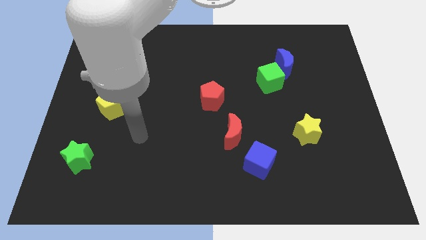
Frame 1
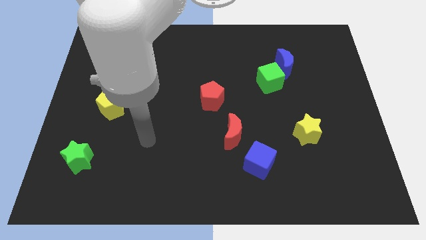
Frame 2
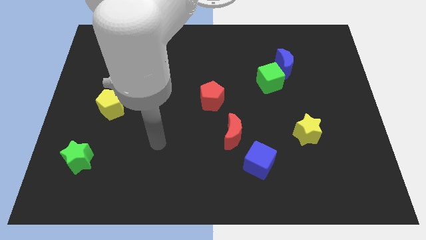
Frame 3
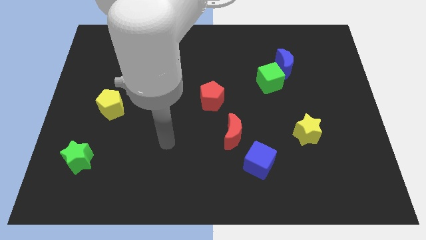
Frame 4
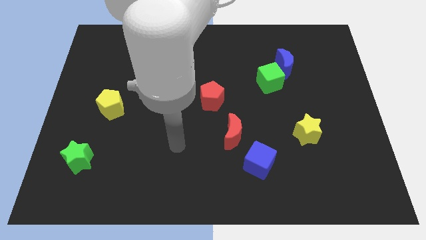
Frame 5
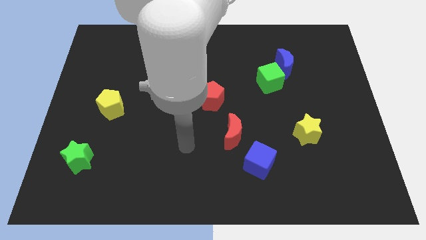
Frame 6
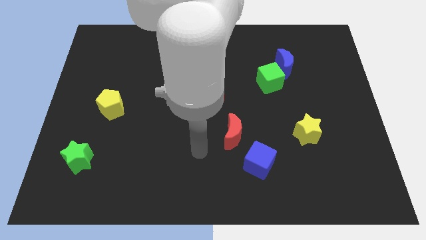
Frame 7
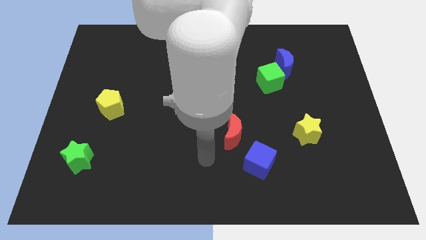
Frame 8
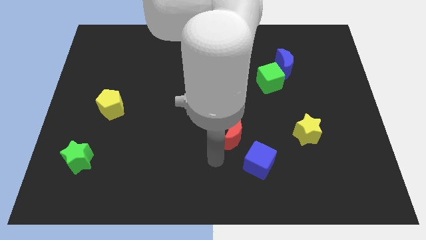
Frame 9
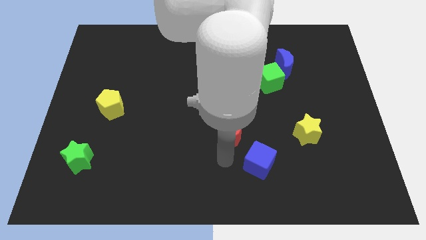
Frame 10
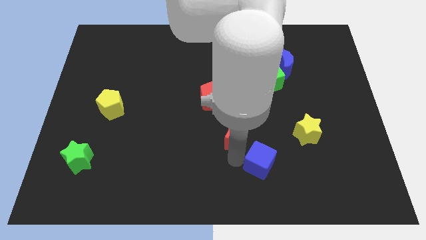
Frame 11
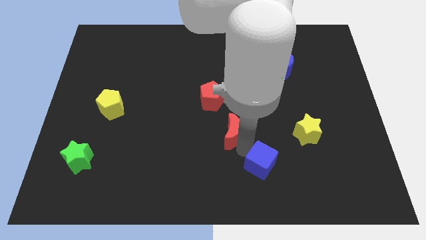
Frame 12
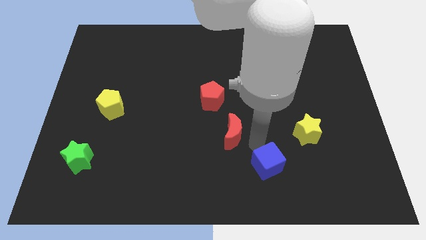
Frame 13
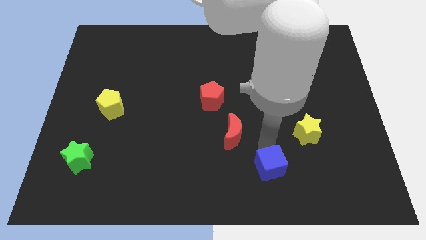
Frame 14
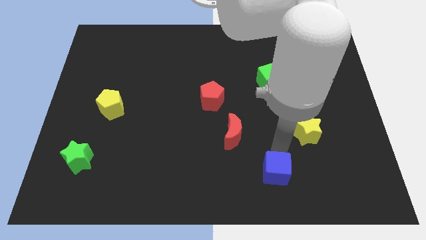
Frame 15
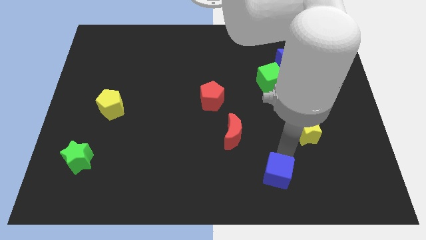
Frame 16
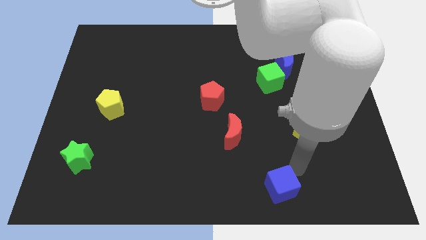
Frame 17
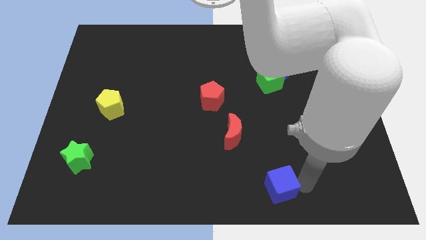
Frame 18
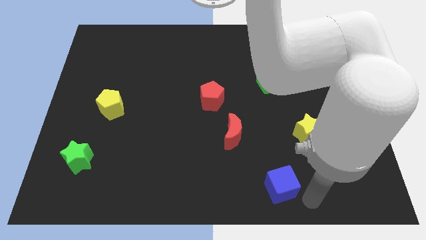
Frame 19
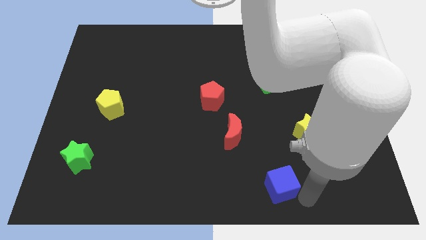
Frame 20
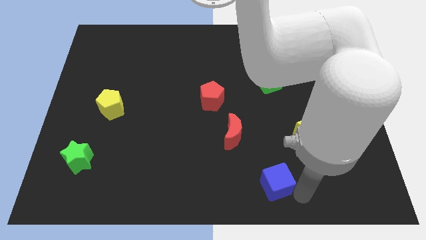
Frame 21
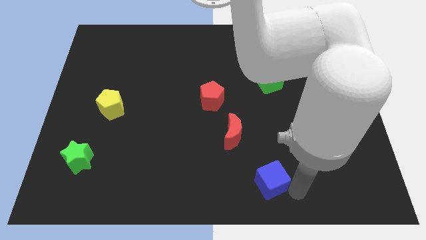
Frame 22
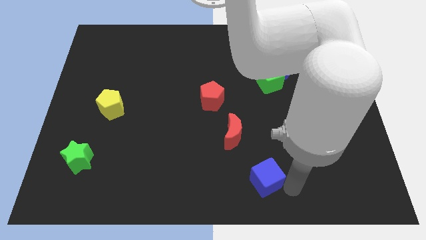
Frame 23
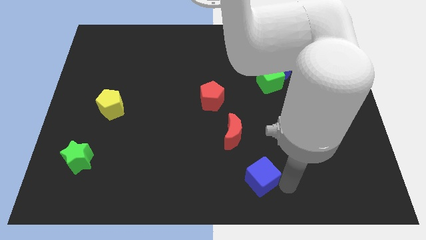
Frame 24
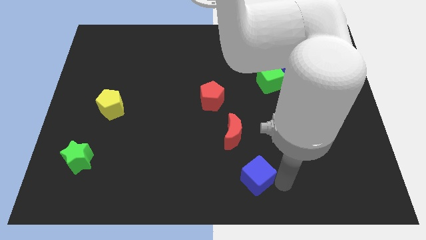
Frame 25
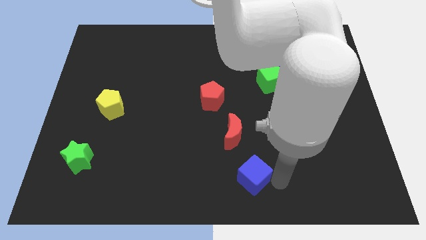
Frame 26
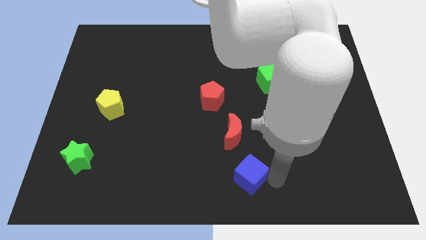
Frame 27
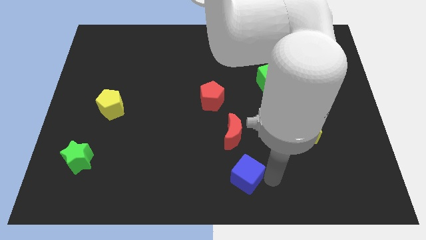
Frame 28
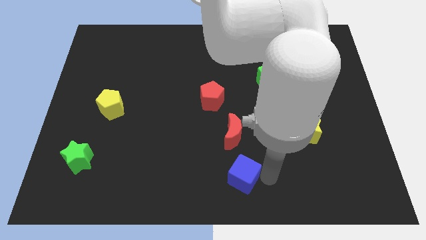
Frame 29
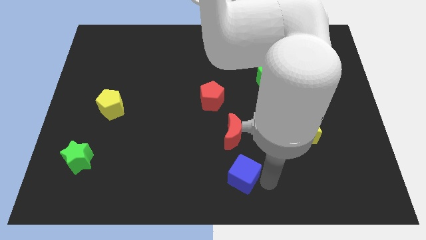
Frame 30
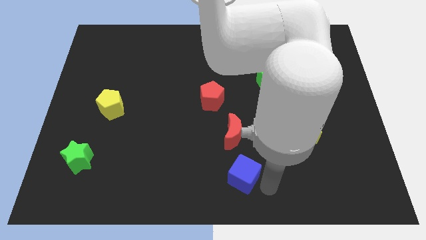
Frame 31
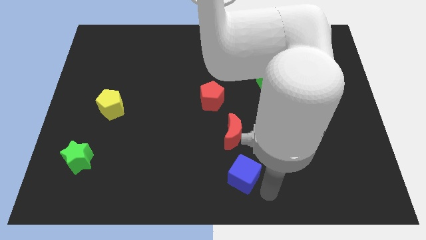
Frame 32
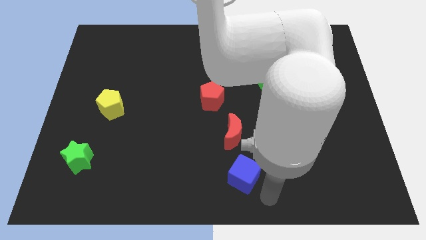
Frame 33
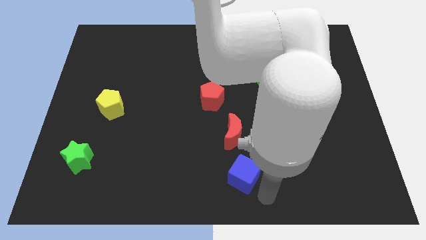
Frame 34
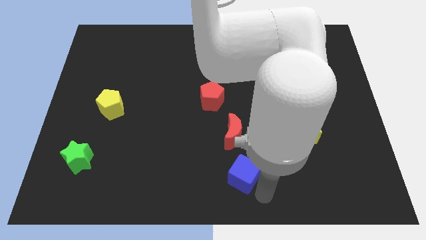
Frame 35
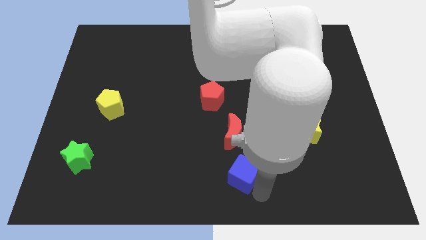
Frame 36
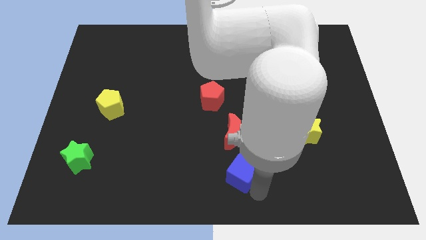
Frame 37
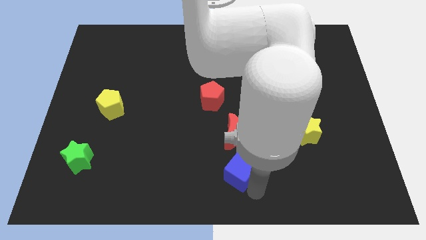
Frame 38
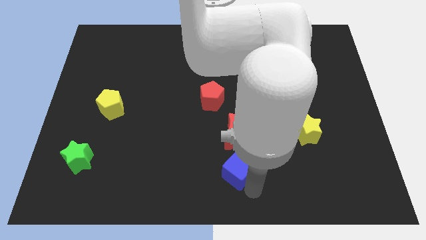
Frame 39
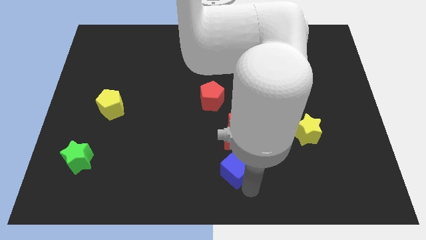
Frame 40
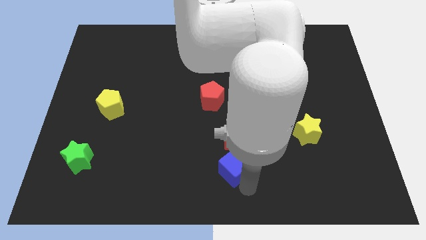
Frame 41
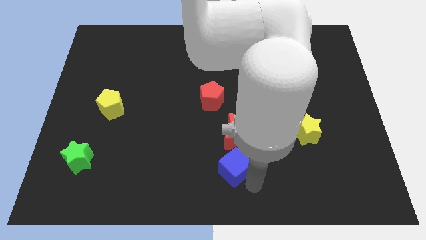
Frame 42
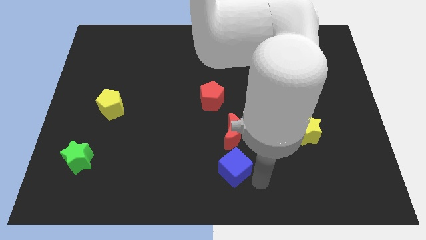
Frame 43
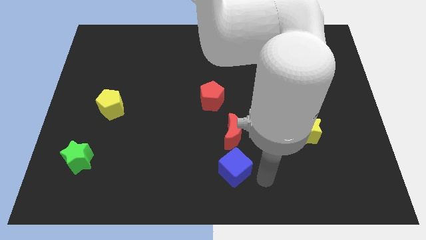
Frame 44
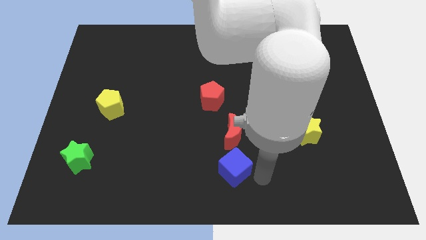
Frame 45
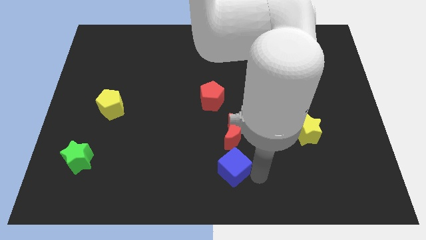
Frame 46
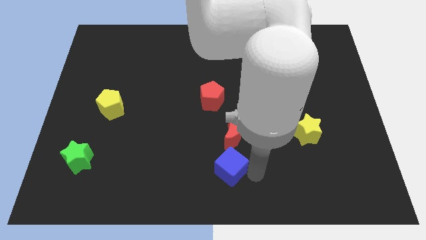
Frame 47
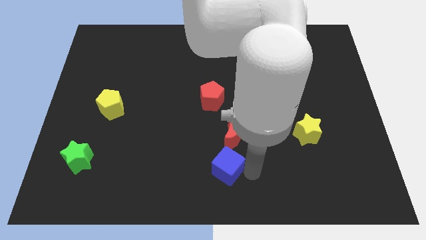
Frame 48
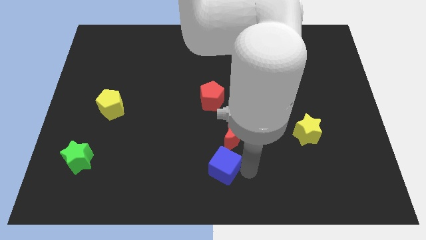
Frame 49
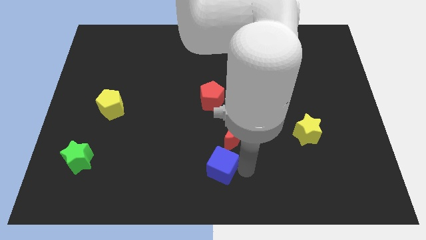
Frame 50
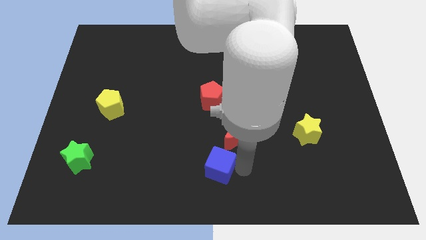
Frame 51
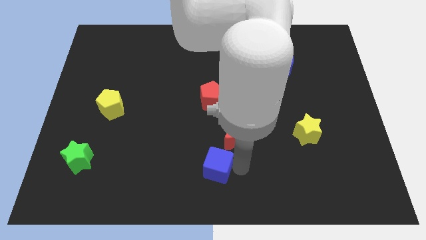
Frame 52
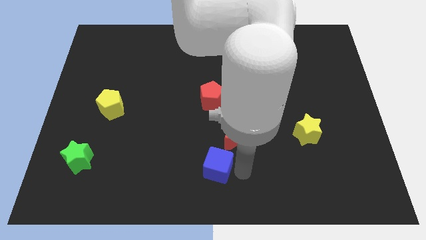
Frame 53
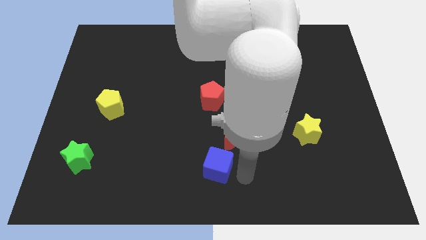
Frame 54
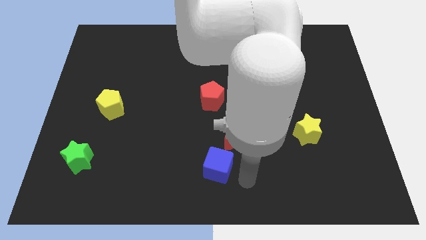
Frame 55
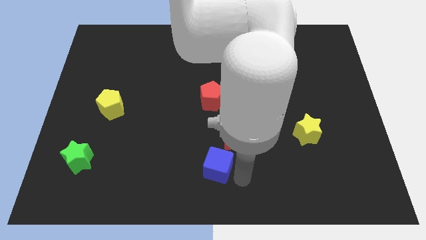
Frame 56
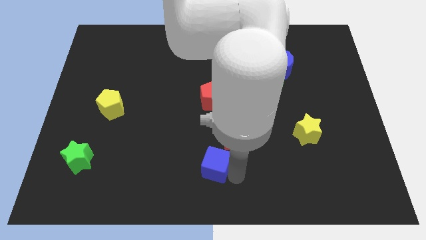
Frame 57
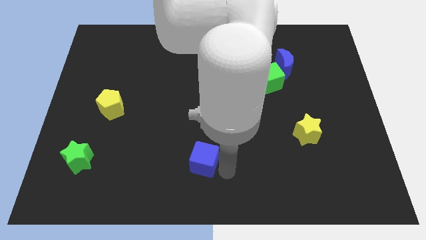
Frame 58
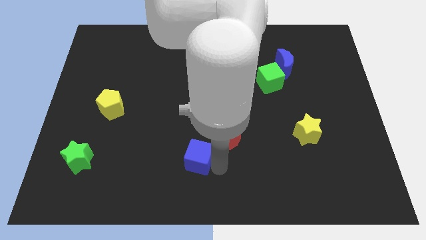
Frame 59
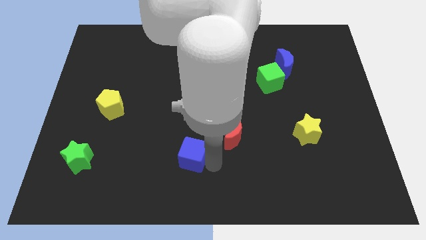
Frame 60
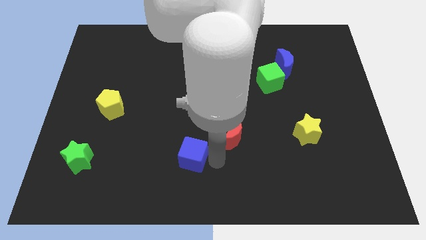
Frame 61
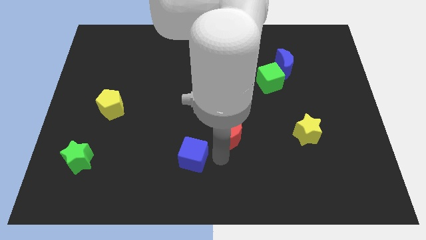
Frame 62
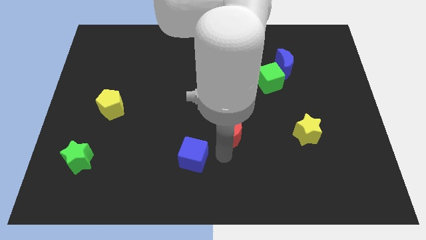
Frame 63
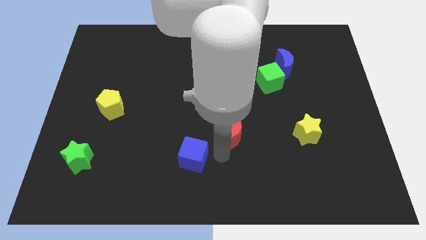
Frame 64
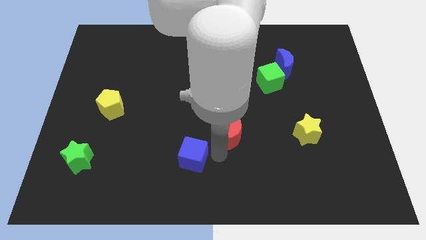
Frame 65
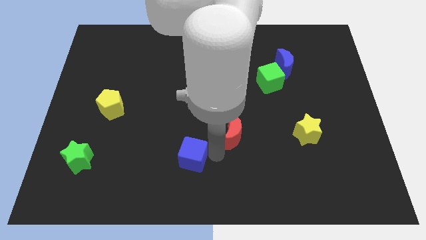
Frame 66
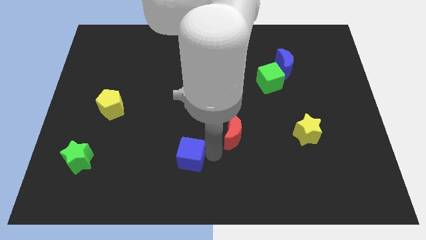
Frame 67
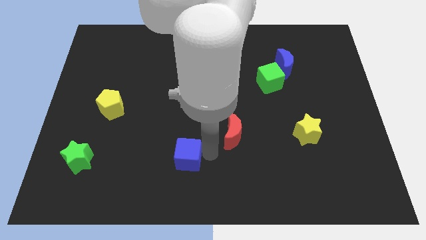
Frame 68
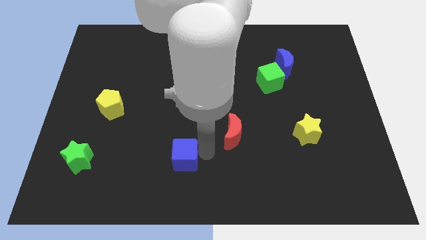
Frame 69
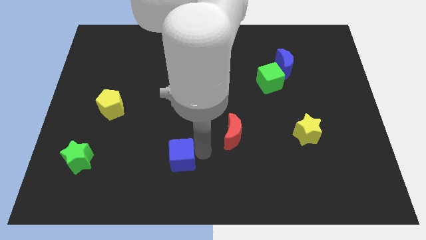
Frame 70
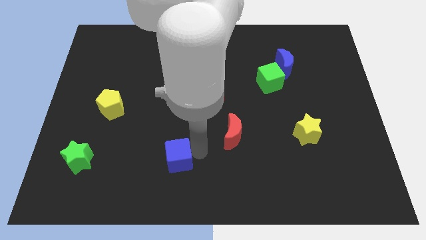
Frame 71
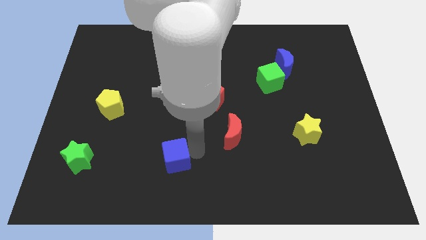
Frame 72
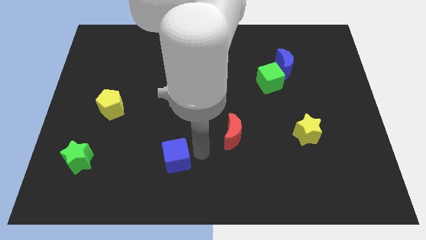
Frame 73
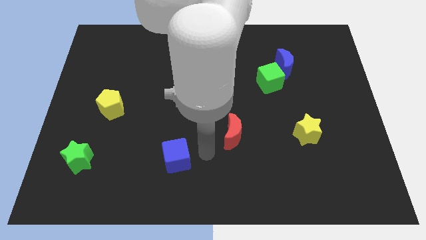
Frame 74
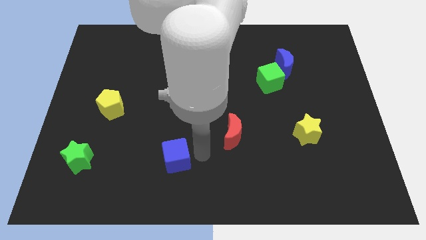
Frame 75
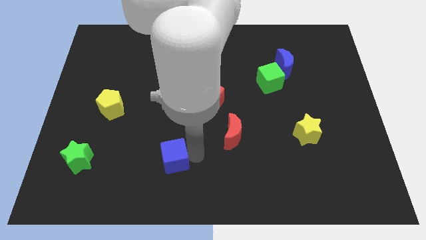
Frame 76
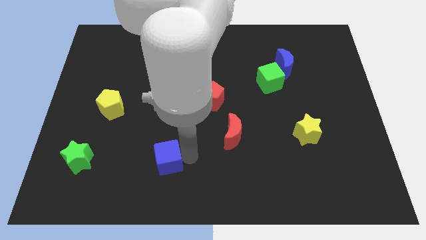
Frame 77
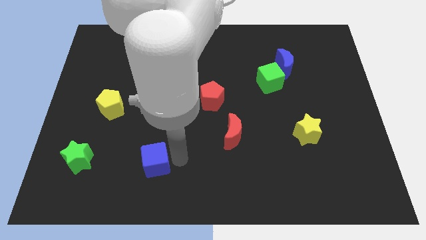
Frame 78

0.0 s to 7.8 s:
slide the blue cube left

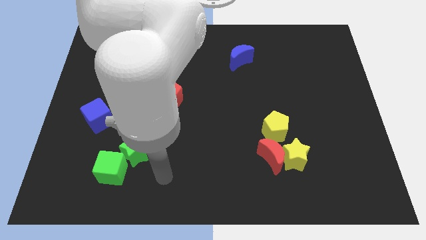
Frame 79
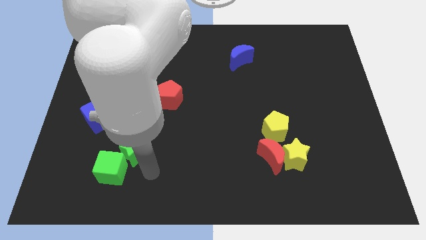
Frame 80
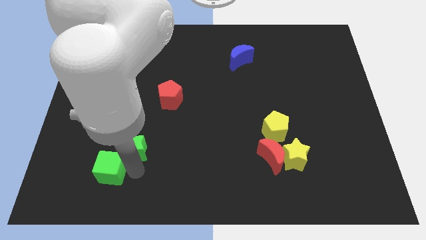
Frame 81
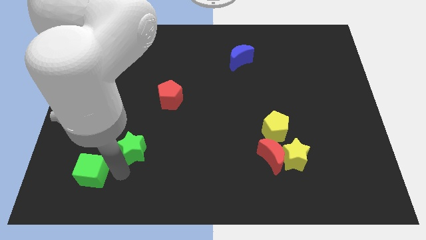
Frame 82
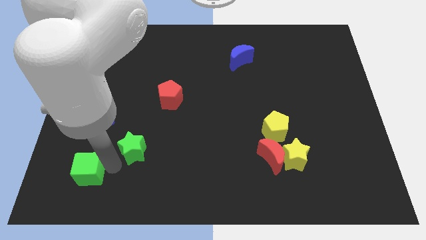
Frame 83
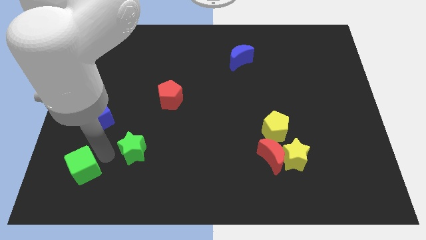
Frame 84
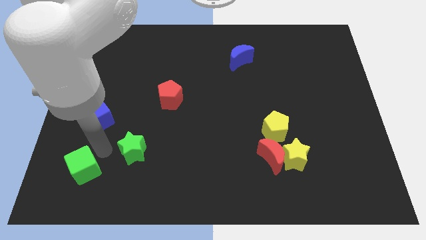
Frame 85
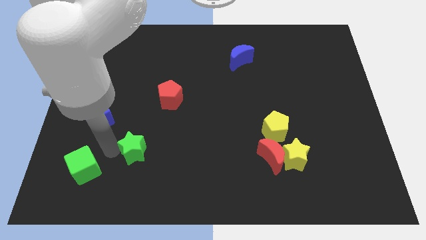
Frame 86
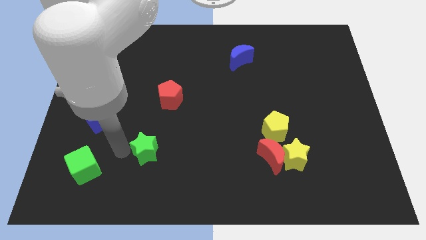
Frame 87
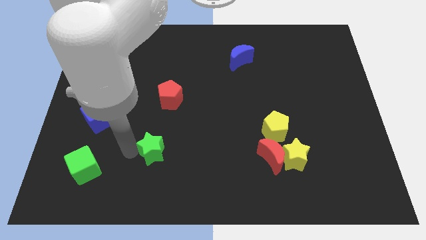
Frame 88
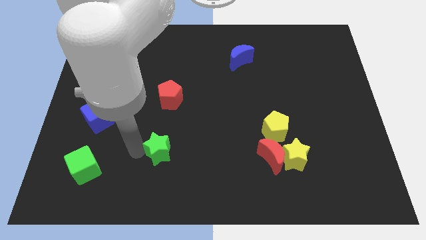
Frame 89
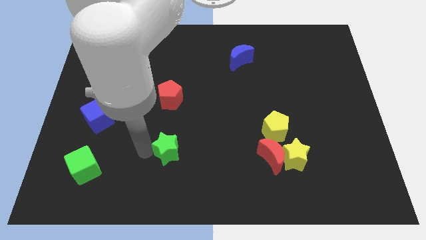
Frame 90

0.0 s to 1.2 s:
slightly slide the green star right
